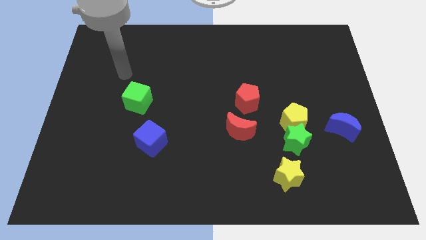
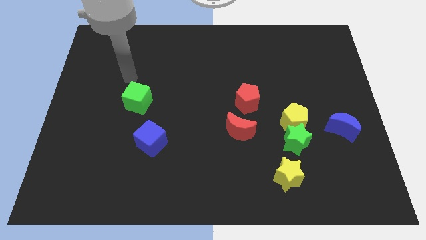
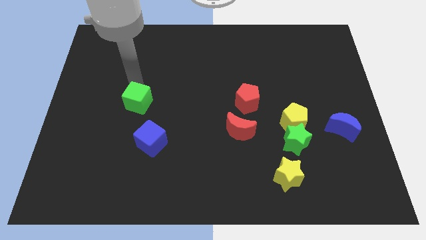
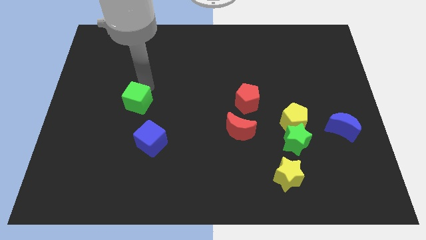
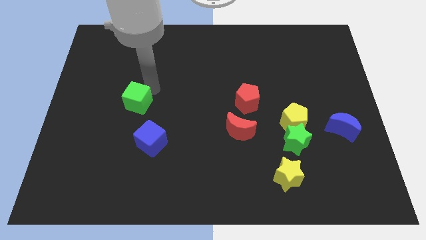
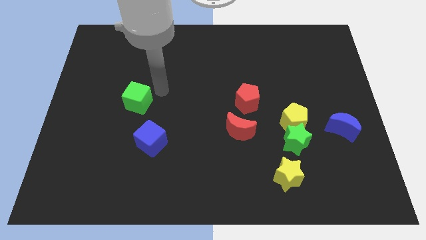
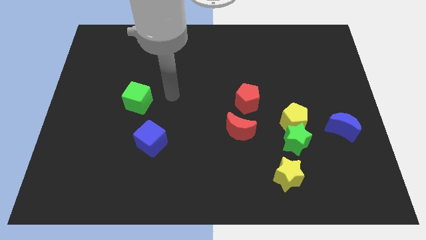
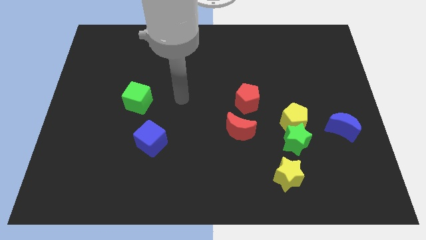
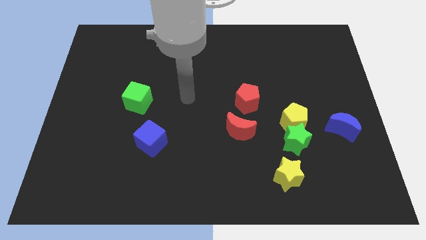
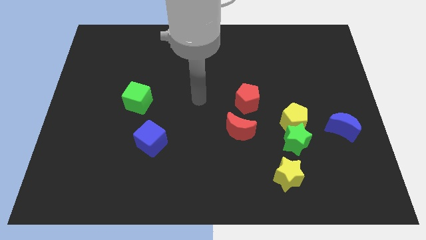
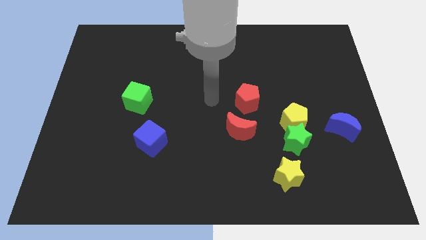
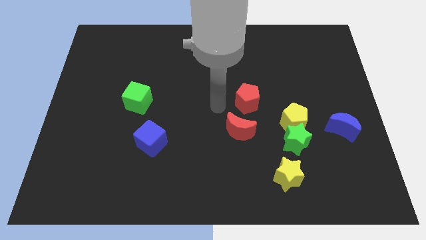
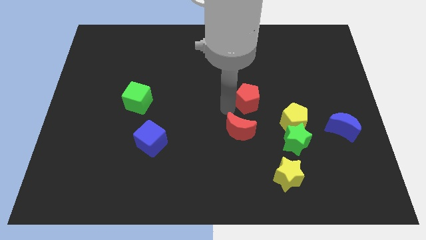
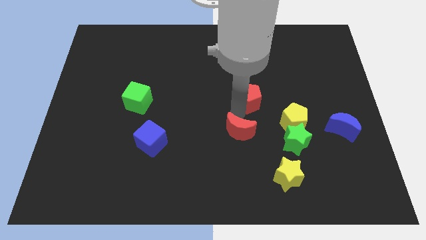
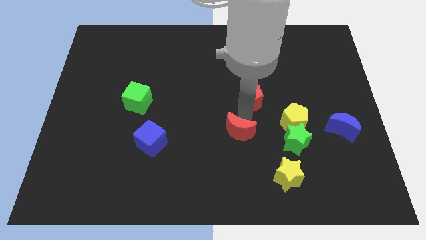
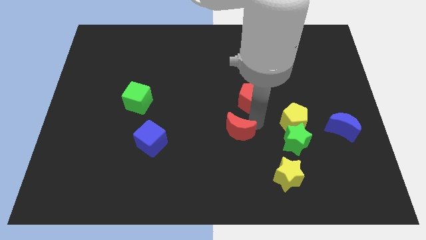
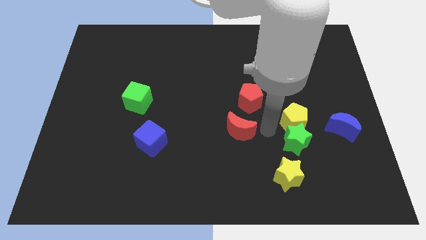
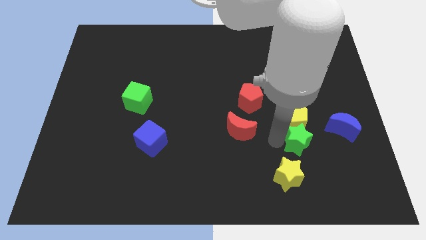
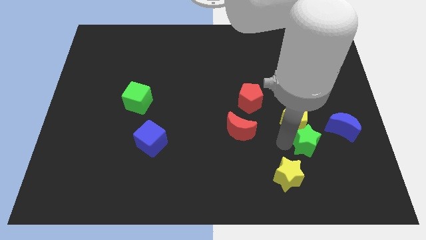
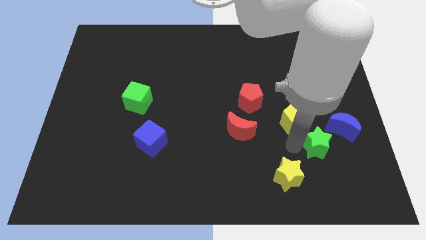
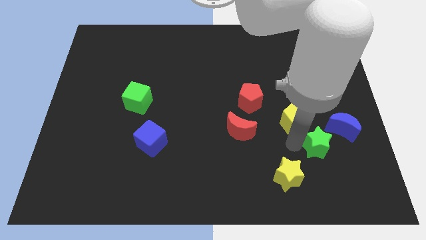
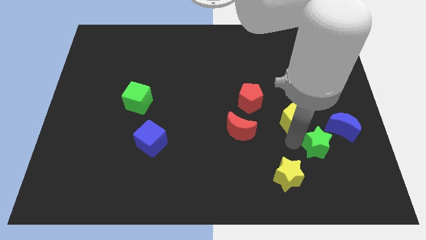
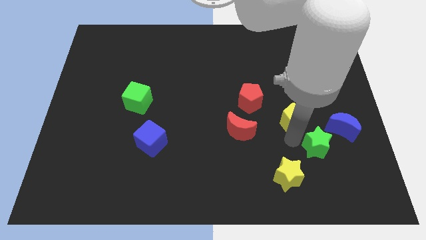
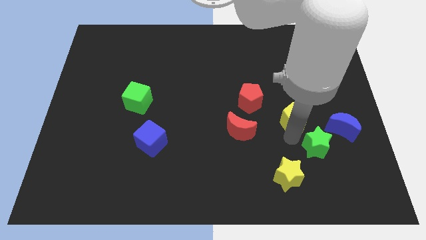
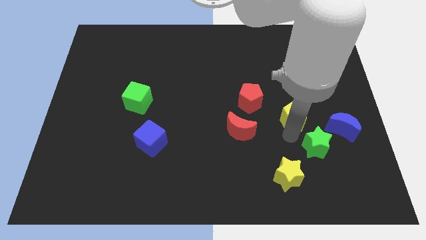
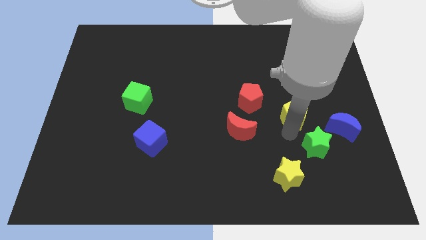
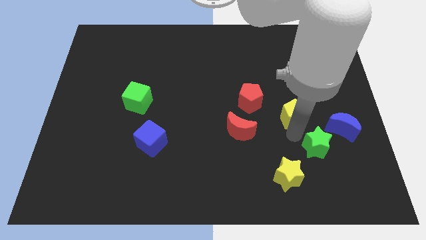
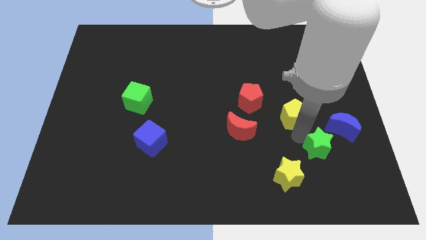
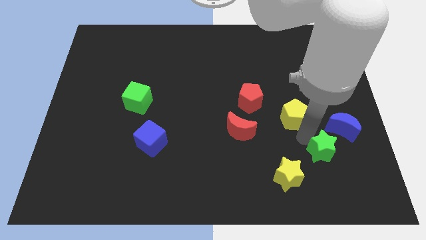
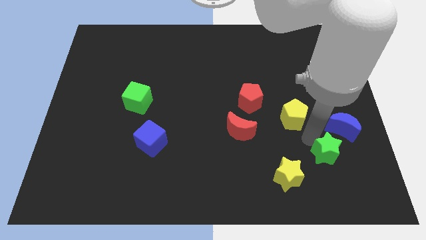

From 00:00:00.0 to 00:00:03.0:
pull the yellow pentagon apart from the green star

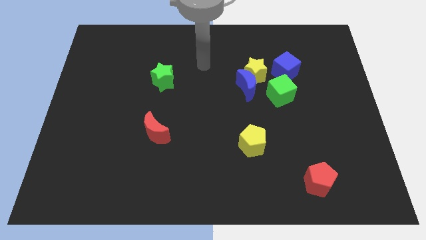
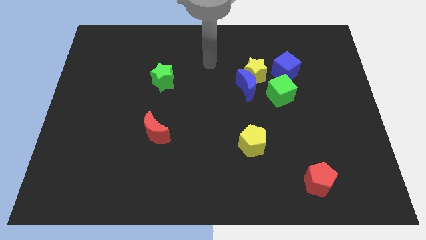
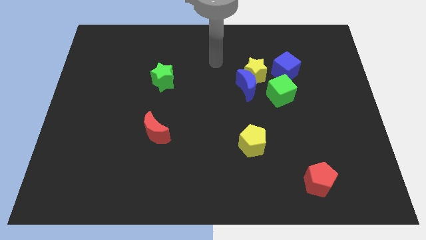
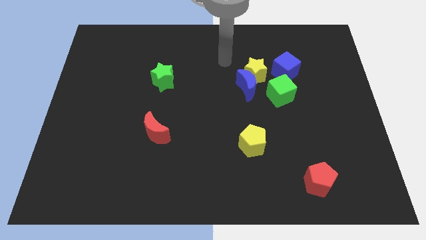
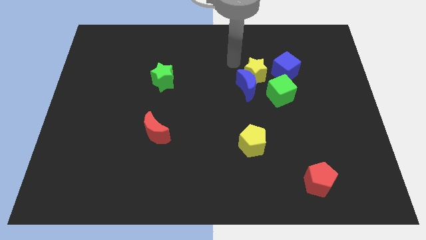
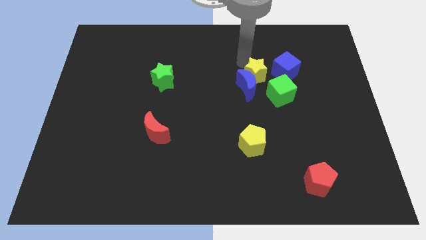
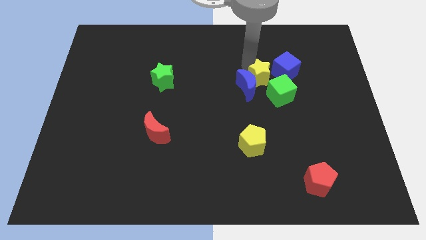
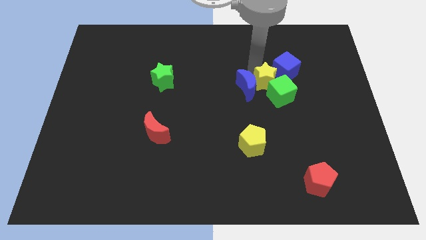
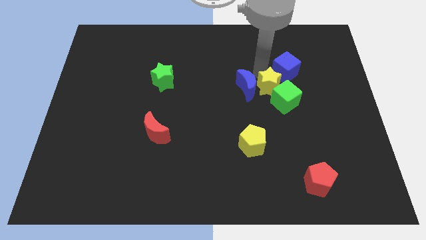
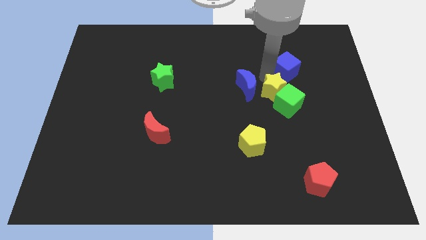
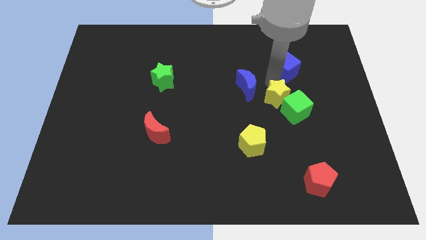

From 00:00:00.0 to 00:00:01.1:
separate the blue moon from the yellow star and green cube

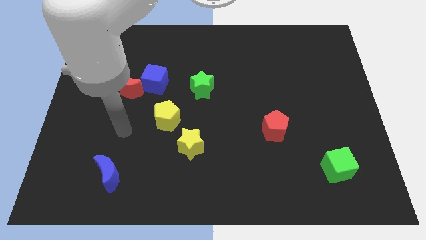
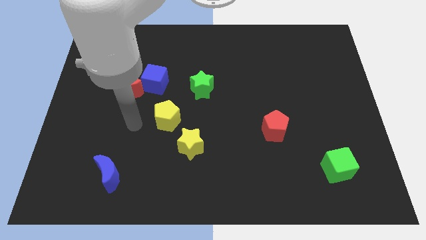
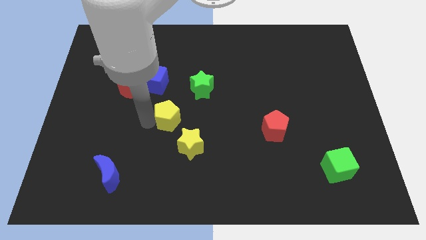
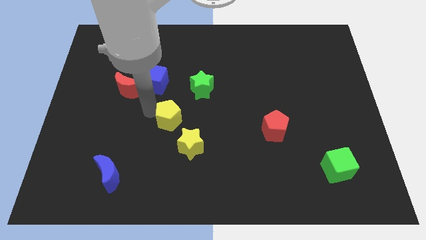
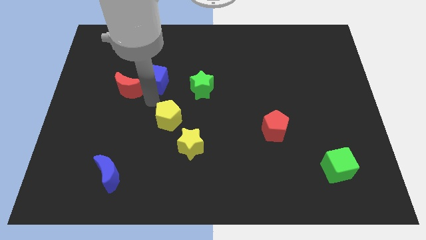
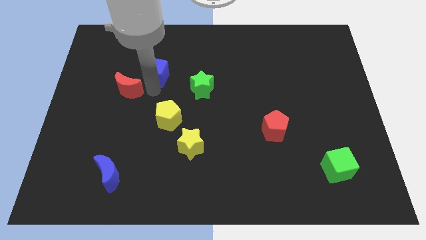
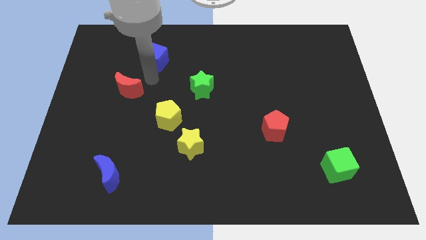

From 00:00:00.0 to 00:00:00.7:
pull the red moon apart from the blue cube

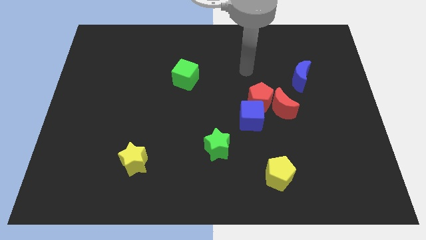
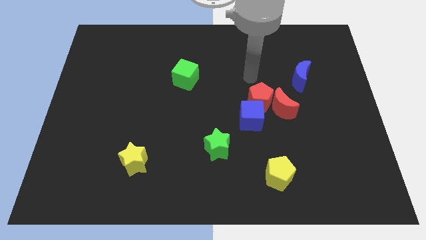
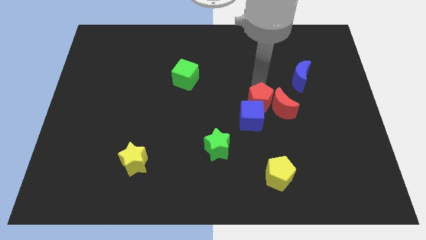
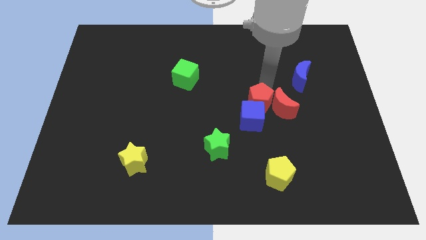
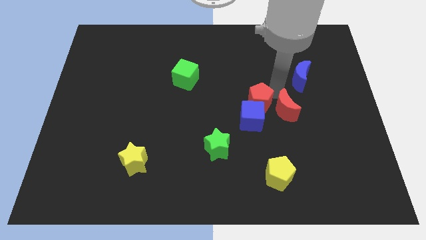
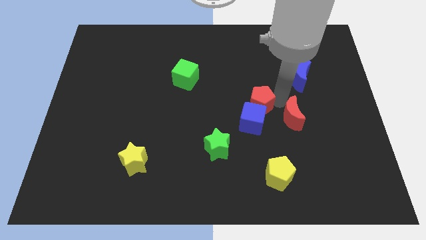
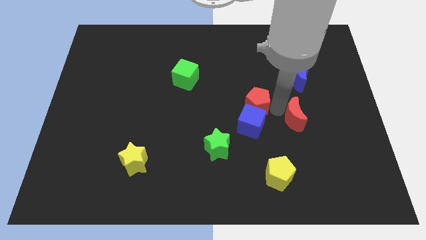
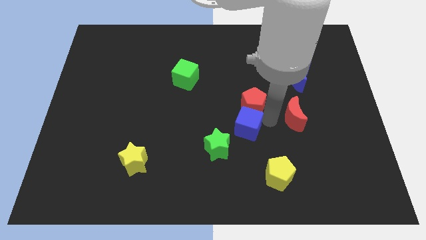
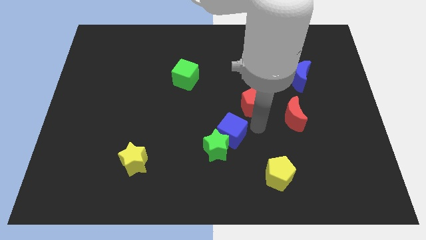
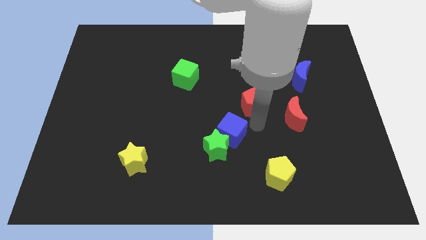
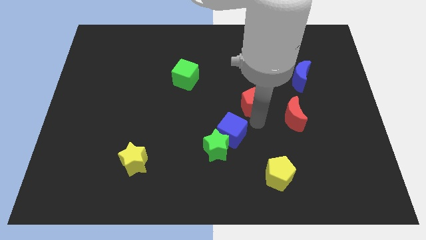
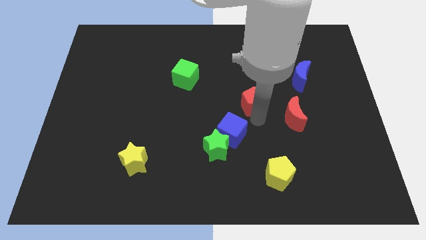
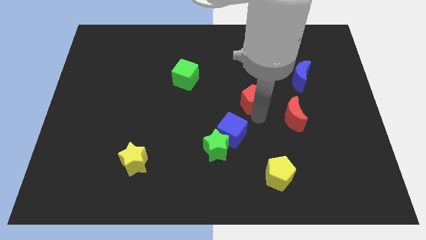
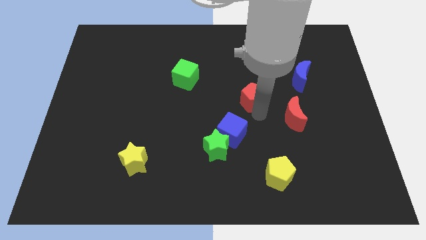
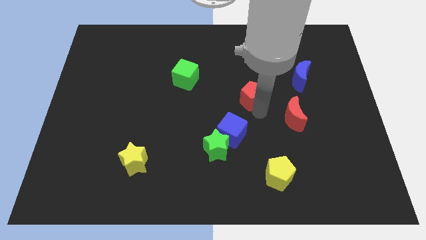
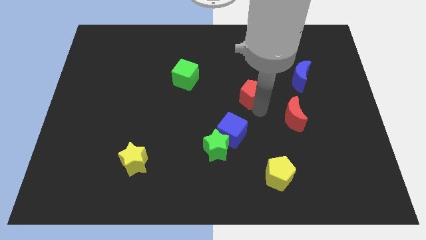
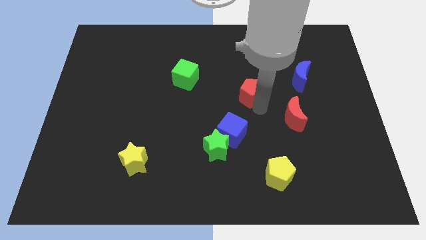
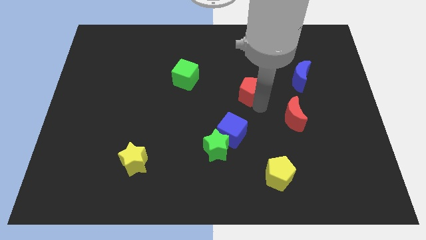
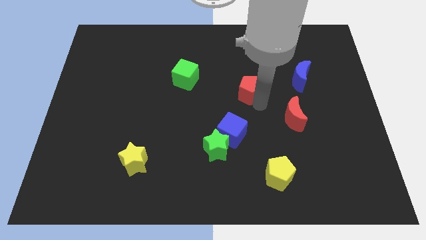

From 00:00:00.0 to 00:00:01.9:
pull the red pentagon apart from the red moon and blue cube

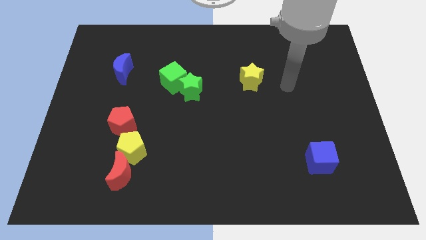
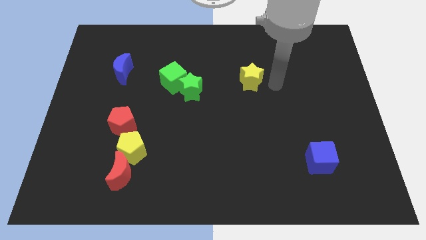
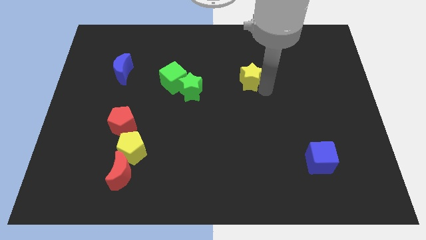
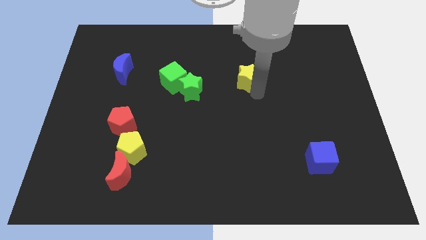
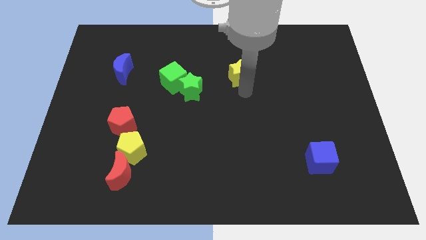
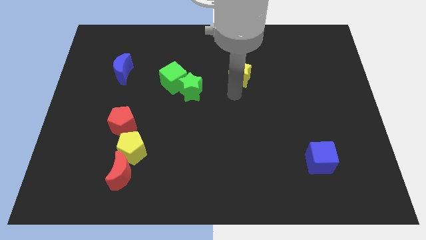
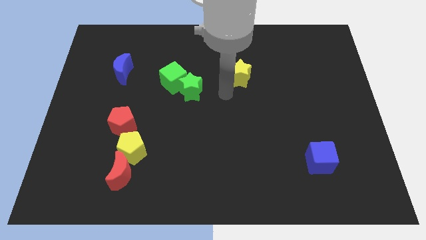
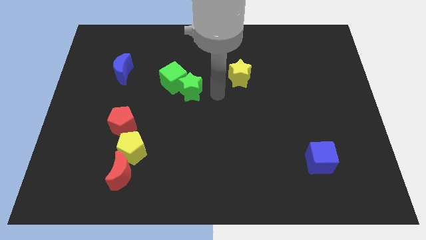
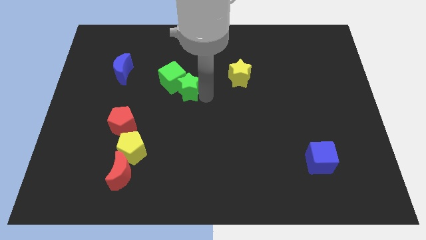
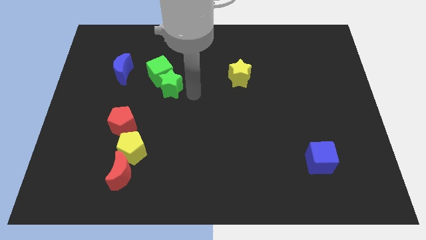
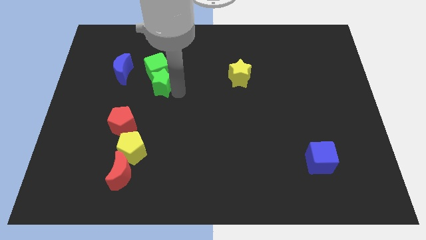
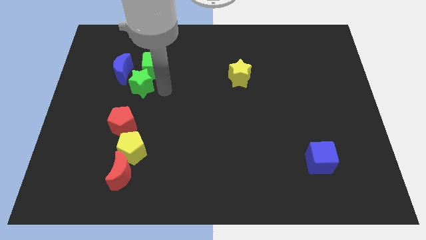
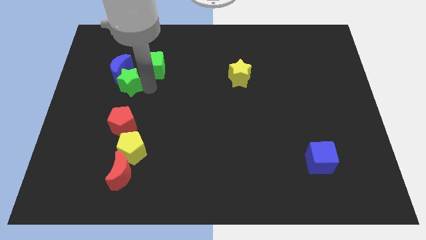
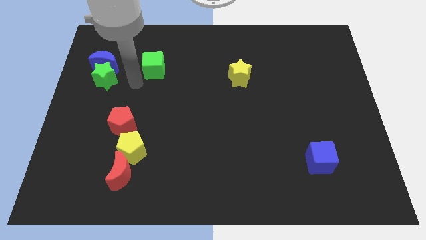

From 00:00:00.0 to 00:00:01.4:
separate the green cube from the green star

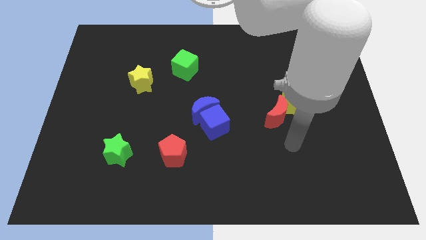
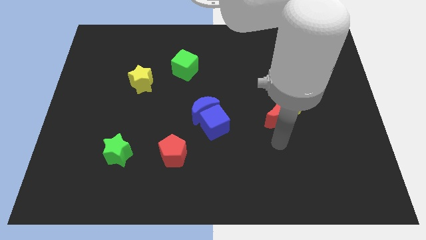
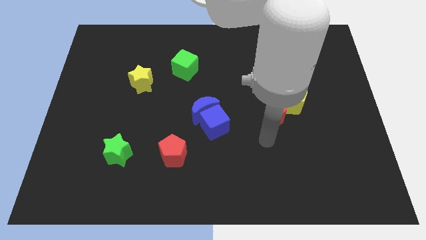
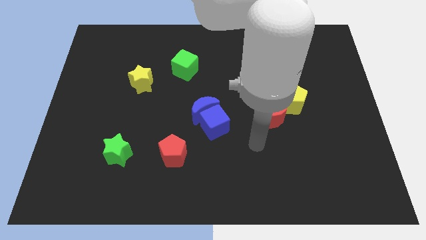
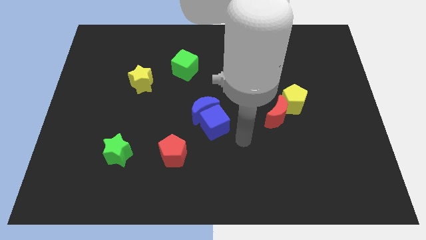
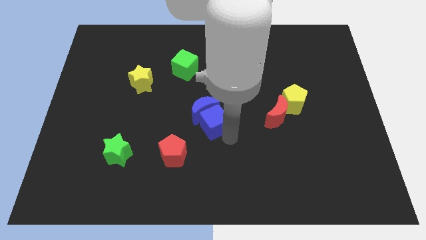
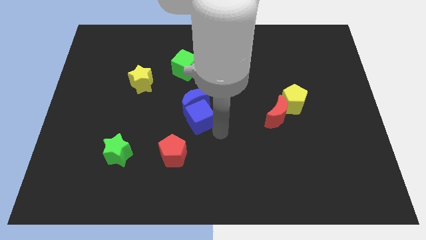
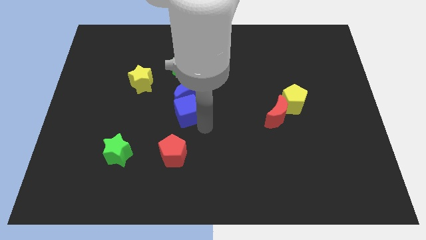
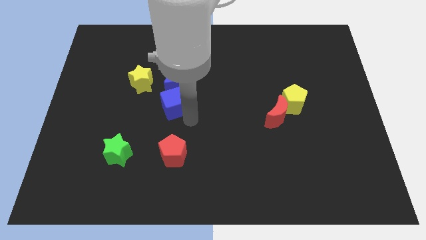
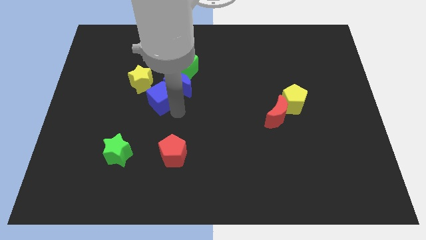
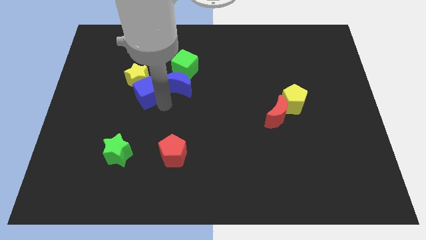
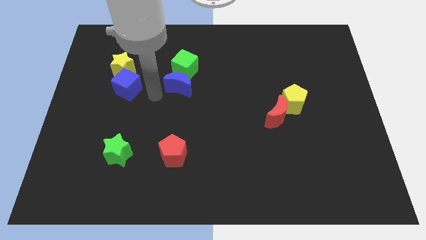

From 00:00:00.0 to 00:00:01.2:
separate the blue moon from the blue cube

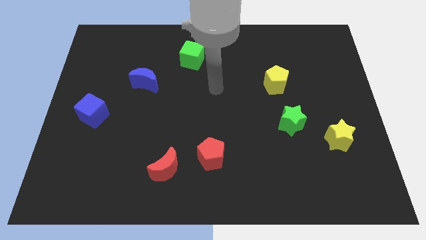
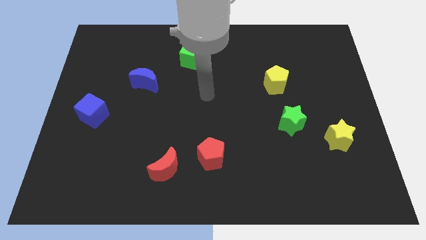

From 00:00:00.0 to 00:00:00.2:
move the red moon away from the red pentagon
